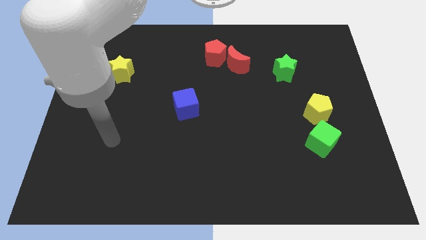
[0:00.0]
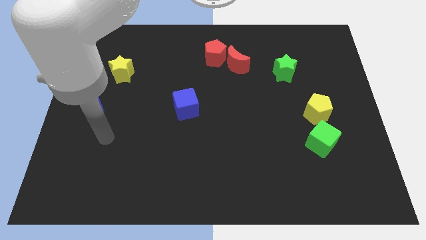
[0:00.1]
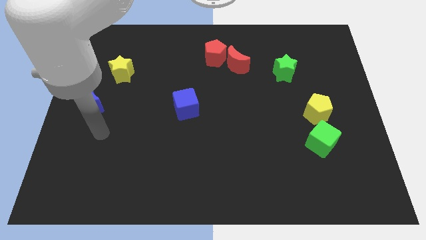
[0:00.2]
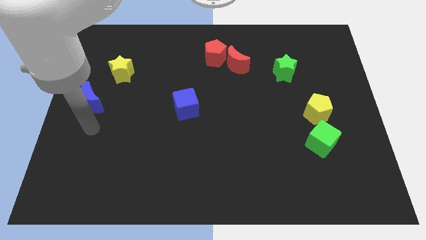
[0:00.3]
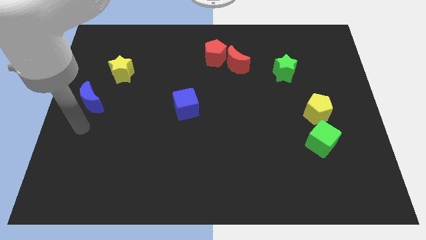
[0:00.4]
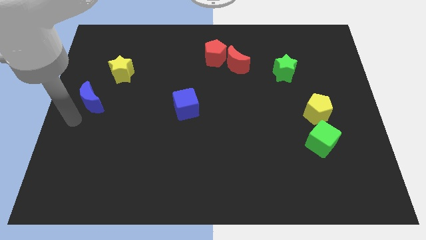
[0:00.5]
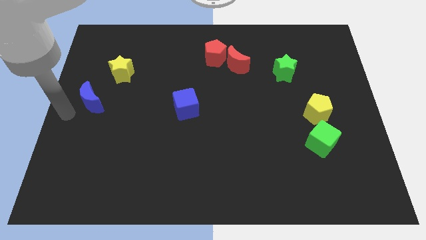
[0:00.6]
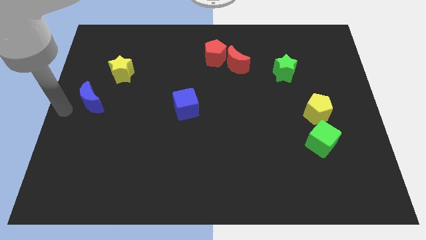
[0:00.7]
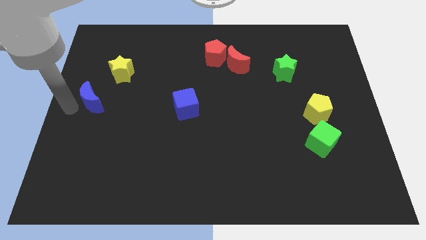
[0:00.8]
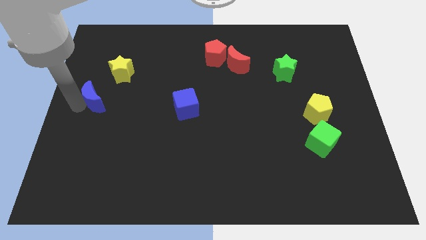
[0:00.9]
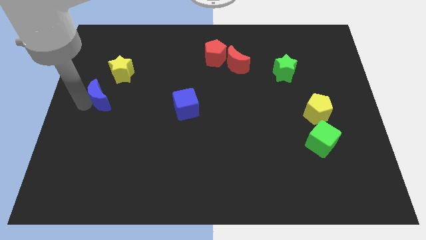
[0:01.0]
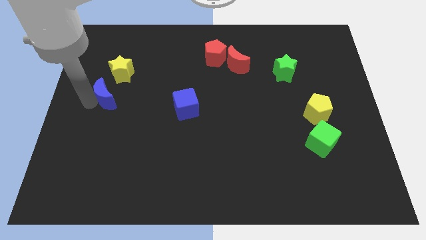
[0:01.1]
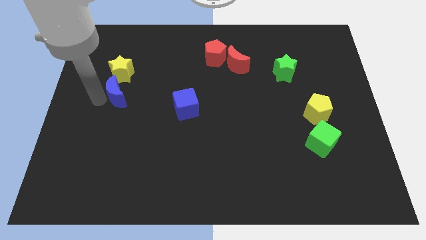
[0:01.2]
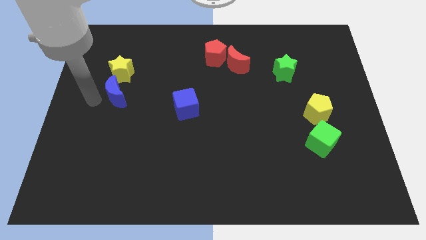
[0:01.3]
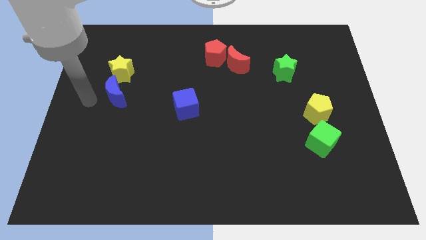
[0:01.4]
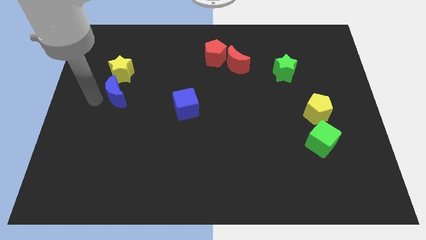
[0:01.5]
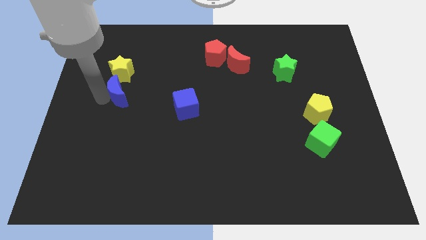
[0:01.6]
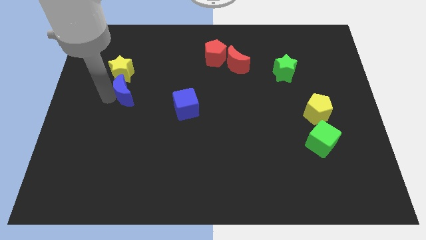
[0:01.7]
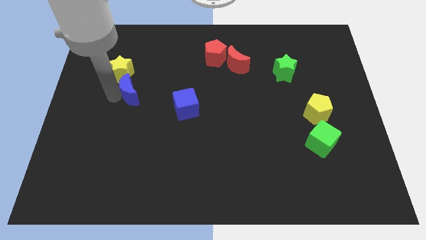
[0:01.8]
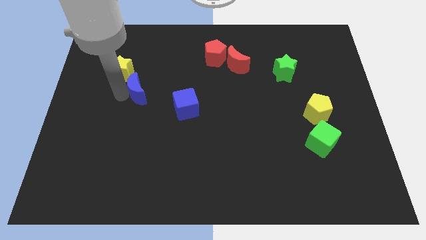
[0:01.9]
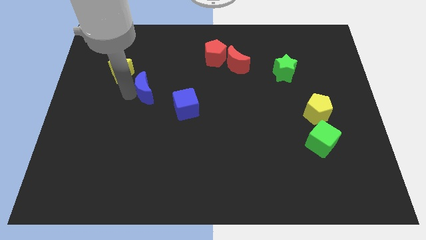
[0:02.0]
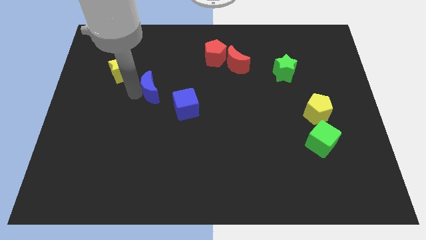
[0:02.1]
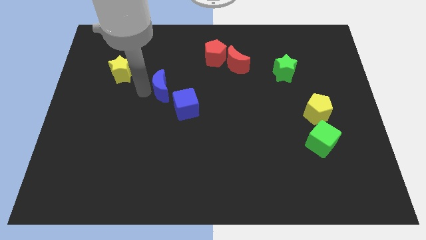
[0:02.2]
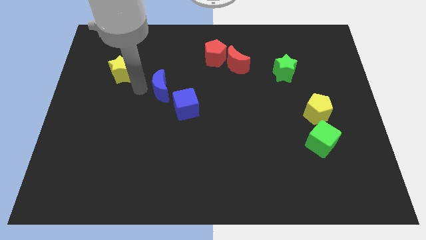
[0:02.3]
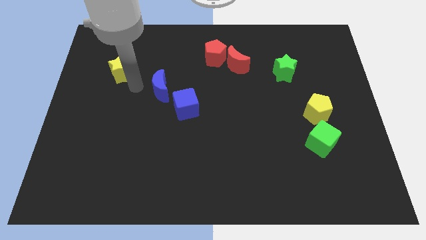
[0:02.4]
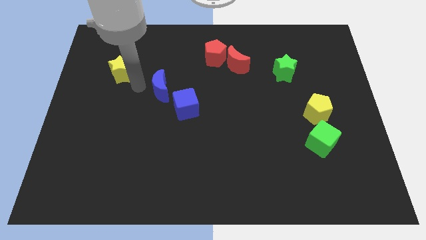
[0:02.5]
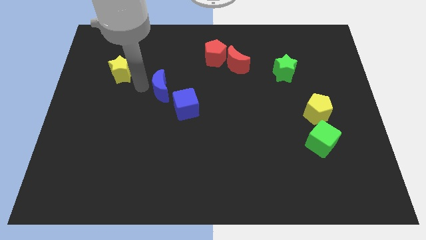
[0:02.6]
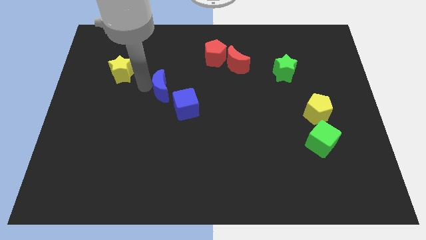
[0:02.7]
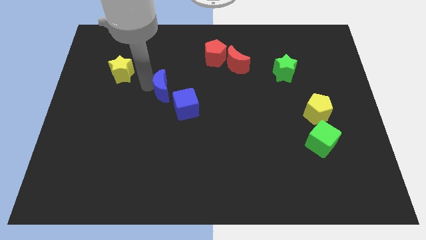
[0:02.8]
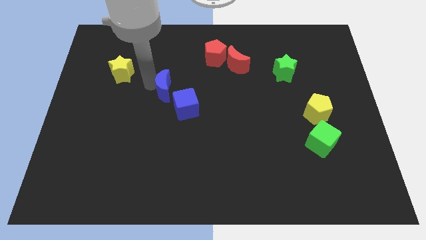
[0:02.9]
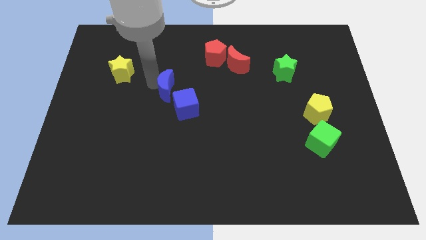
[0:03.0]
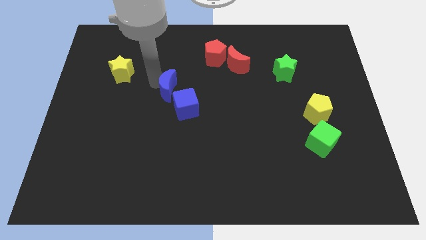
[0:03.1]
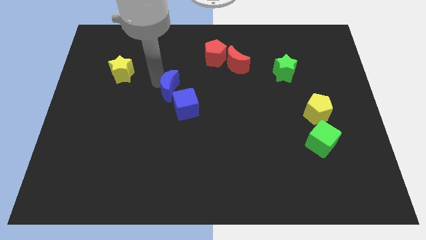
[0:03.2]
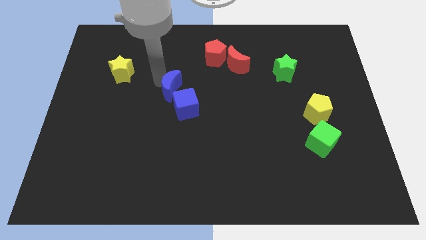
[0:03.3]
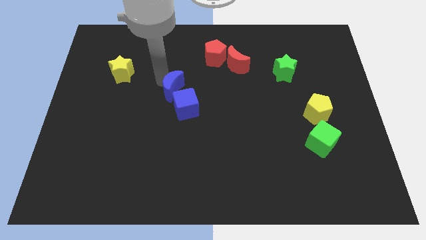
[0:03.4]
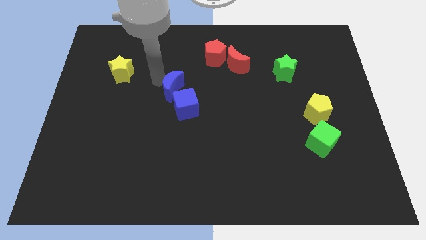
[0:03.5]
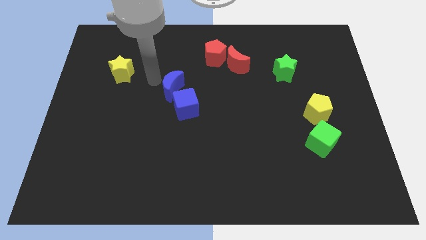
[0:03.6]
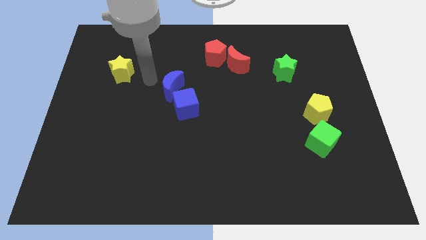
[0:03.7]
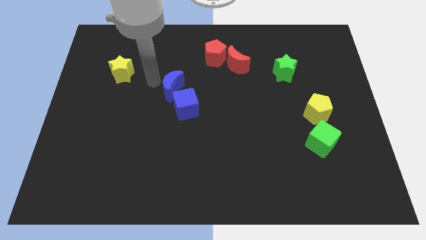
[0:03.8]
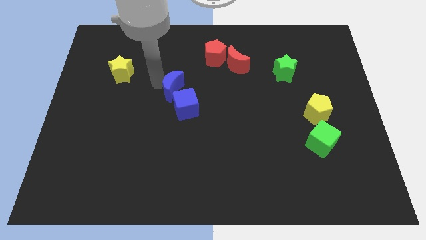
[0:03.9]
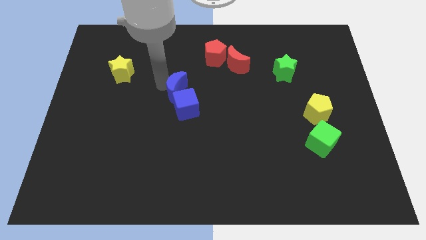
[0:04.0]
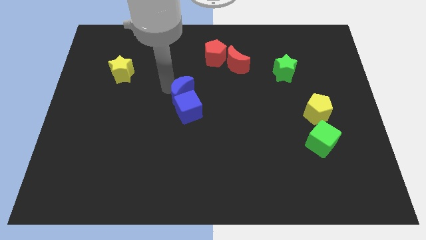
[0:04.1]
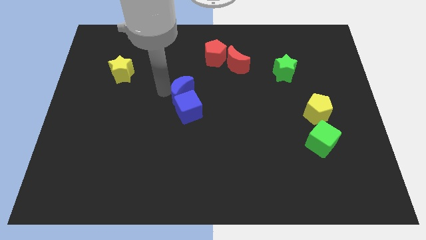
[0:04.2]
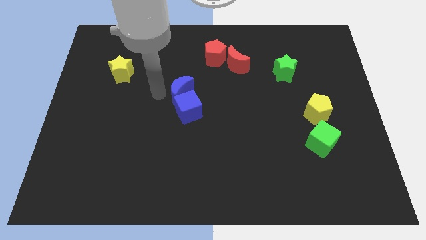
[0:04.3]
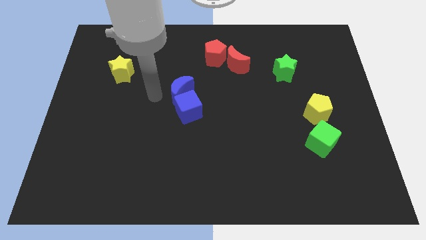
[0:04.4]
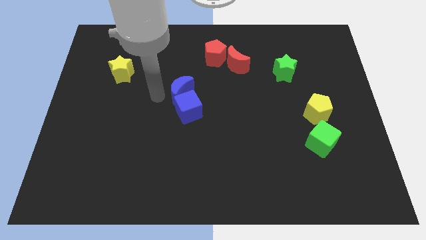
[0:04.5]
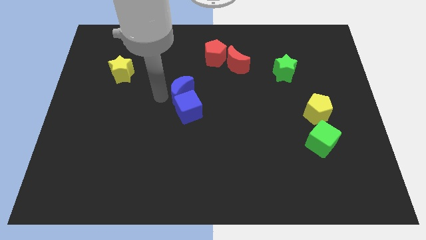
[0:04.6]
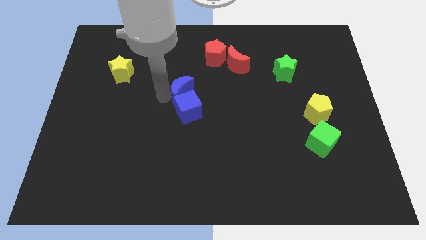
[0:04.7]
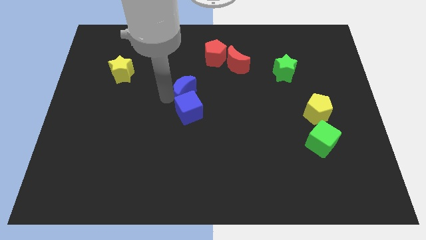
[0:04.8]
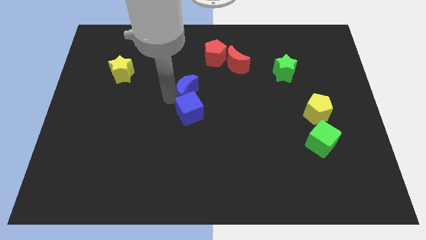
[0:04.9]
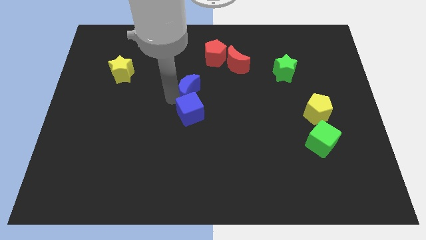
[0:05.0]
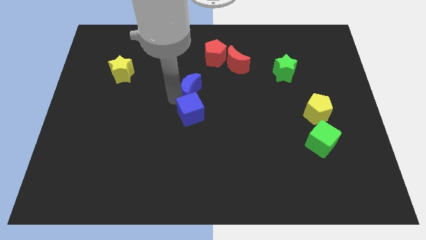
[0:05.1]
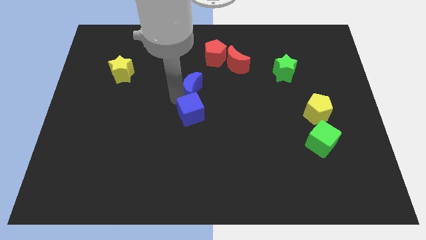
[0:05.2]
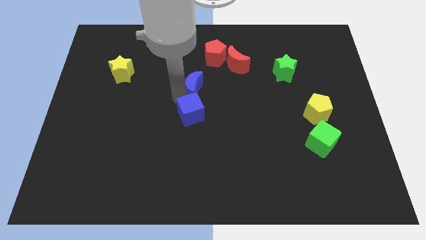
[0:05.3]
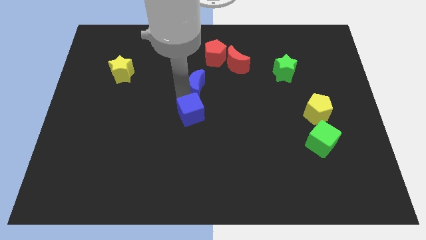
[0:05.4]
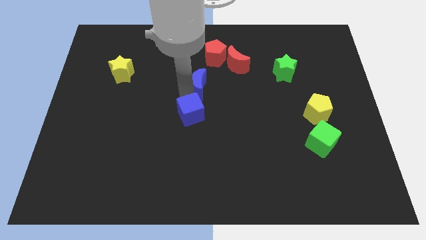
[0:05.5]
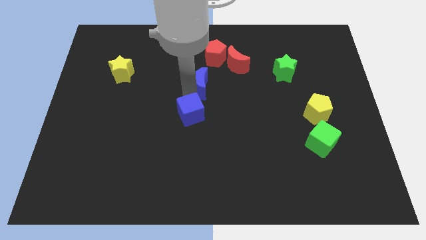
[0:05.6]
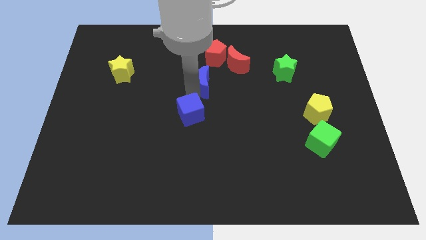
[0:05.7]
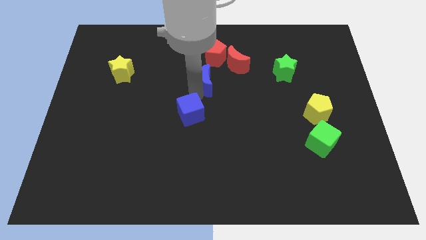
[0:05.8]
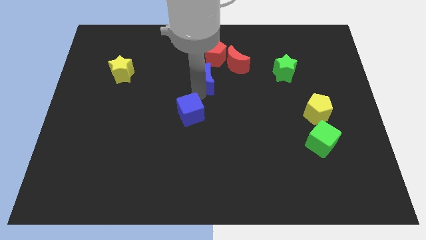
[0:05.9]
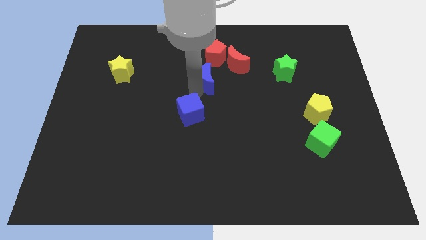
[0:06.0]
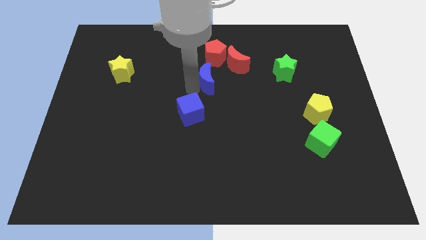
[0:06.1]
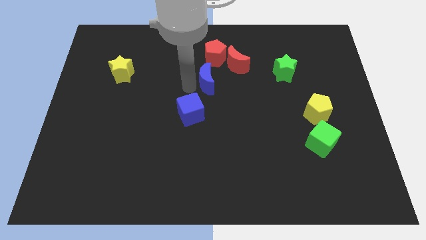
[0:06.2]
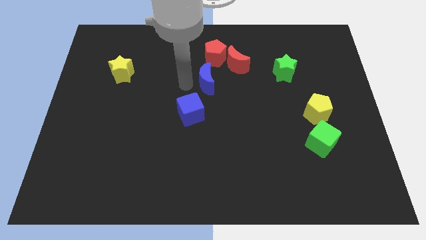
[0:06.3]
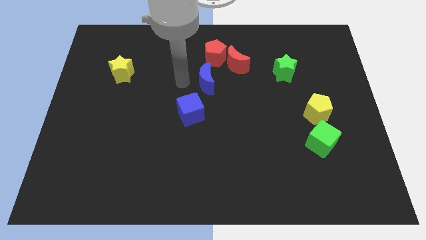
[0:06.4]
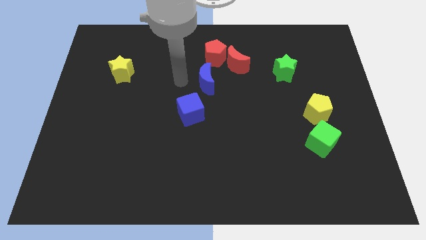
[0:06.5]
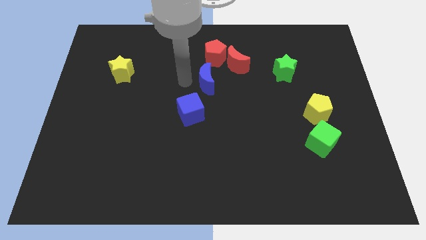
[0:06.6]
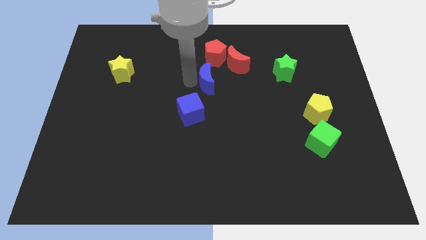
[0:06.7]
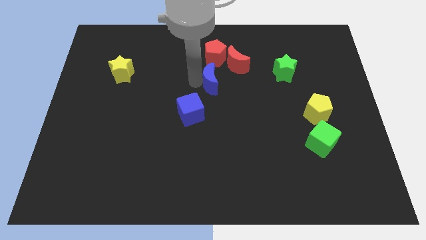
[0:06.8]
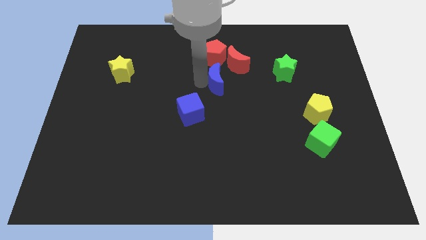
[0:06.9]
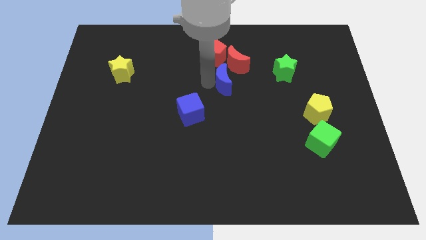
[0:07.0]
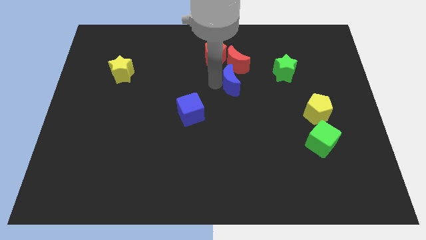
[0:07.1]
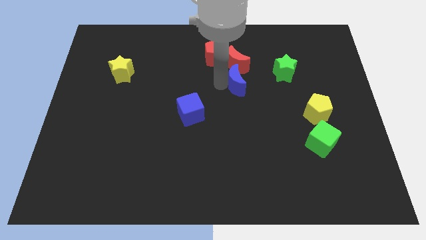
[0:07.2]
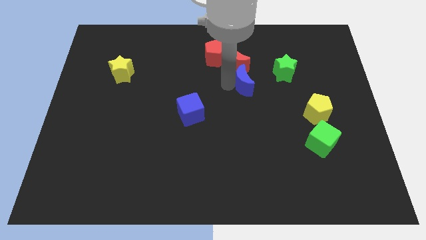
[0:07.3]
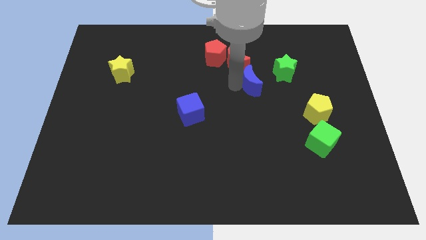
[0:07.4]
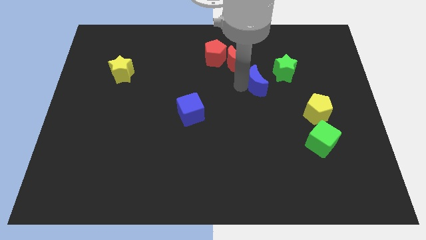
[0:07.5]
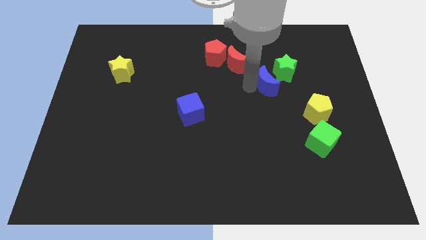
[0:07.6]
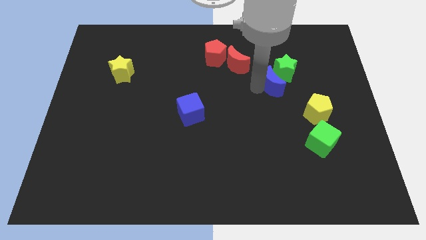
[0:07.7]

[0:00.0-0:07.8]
slide the blue moon next to the green star
